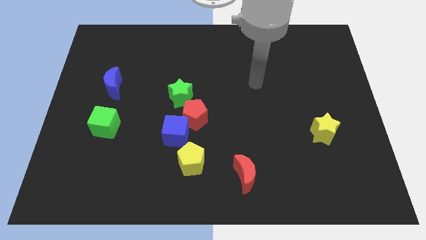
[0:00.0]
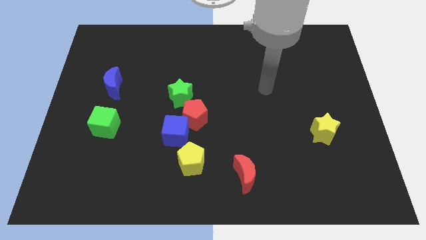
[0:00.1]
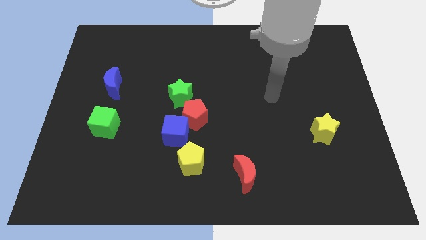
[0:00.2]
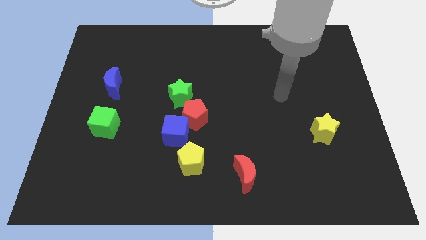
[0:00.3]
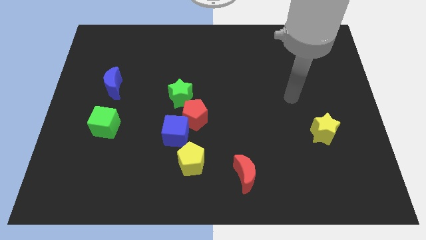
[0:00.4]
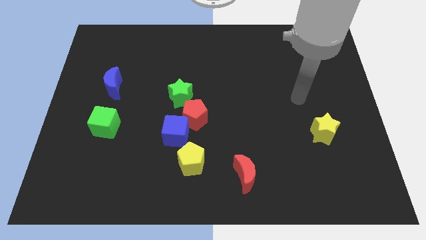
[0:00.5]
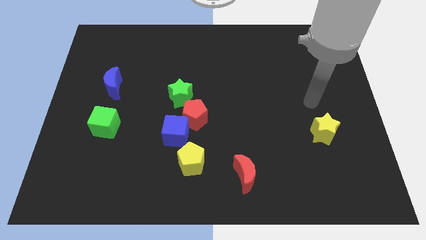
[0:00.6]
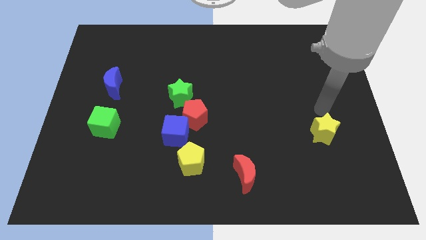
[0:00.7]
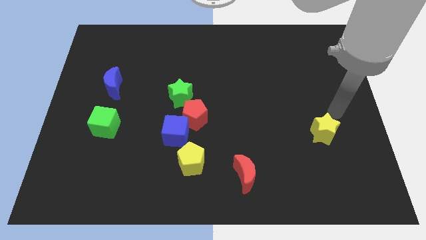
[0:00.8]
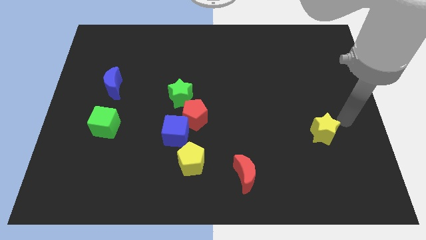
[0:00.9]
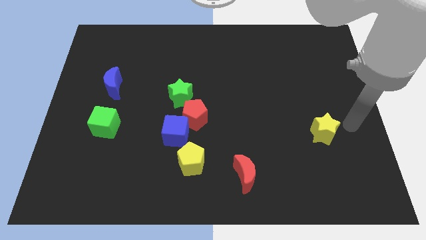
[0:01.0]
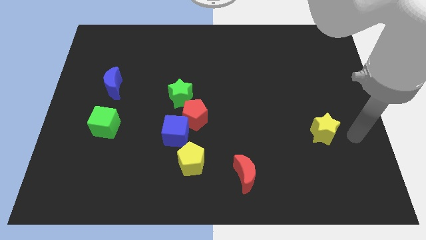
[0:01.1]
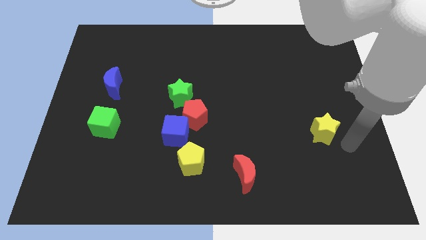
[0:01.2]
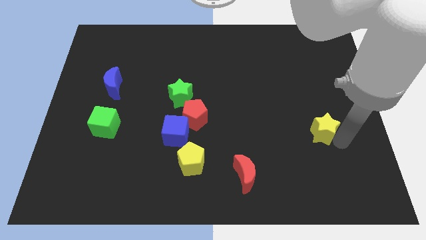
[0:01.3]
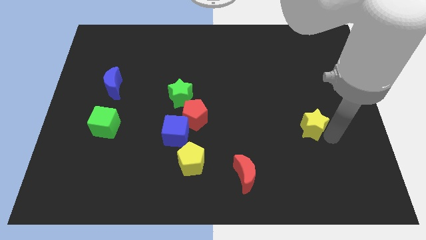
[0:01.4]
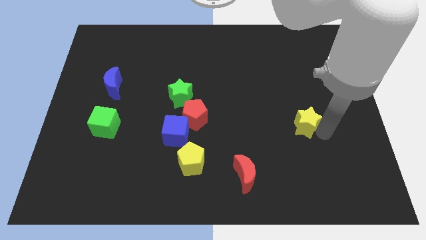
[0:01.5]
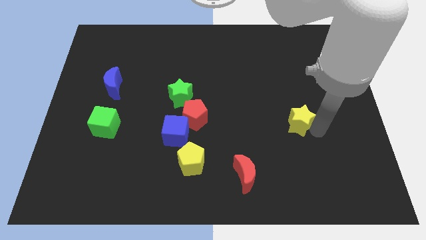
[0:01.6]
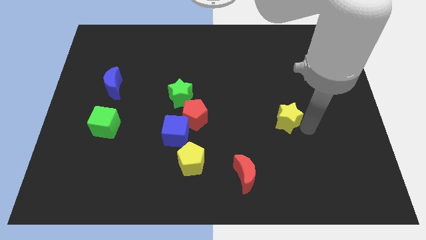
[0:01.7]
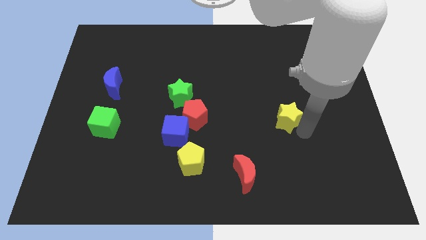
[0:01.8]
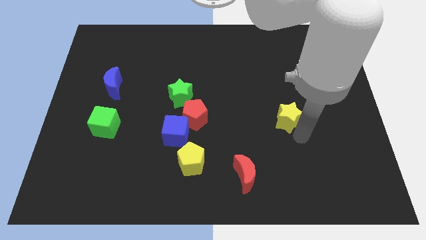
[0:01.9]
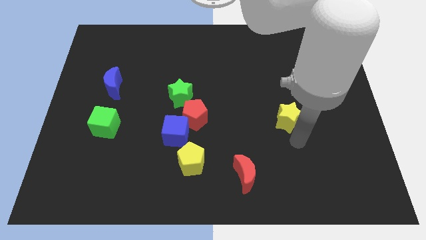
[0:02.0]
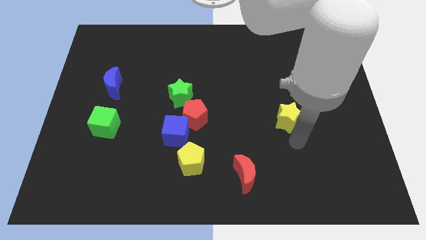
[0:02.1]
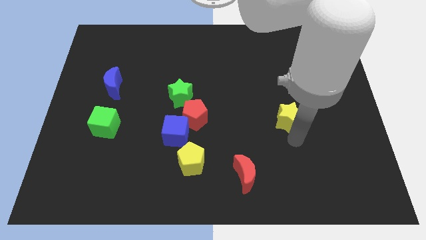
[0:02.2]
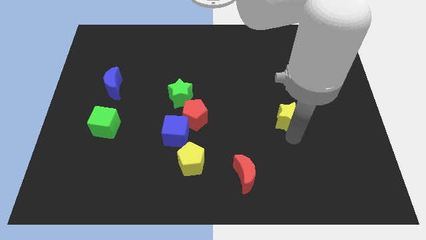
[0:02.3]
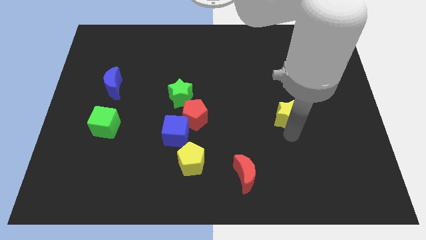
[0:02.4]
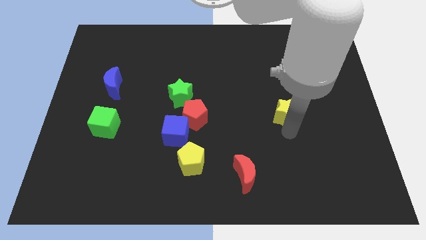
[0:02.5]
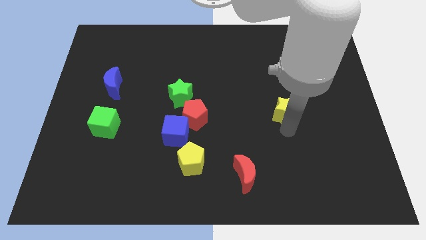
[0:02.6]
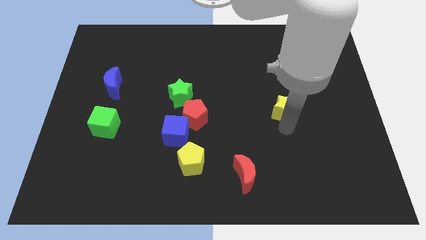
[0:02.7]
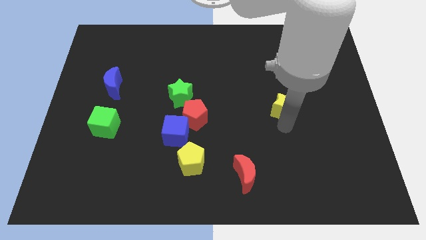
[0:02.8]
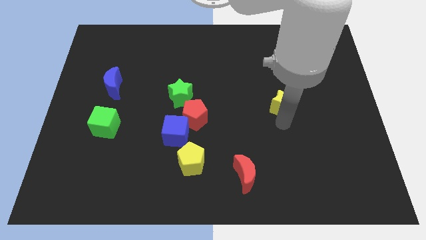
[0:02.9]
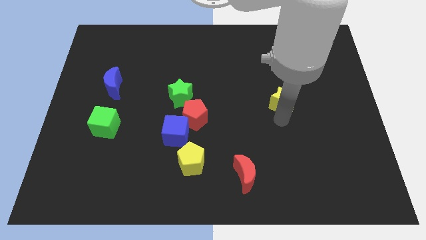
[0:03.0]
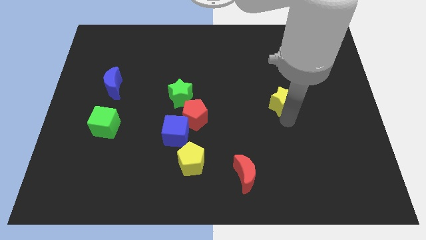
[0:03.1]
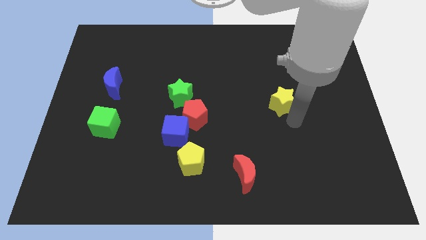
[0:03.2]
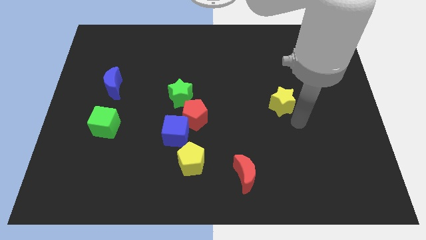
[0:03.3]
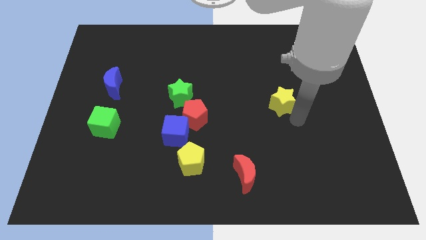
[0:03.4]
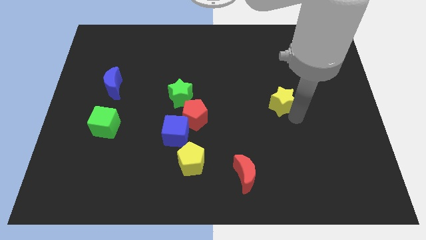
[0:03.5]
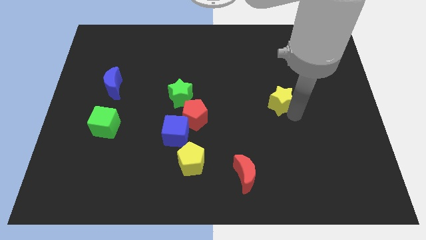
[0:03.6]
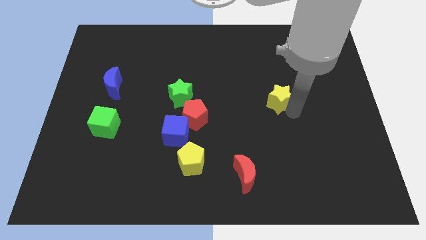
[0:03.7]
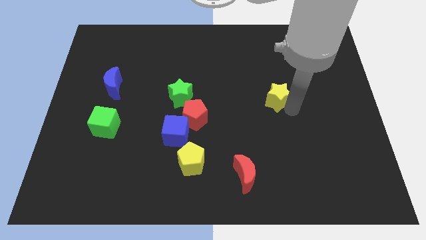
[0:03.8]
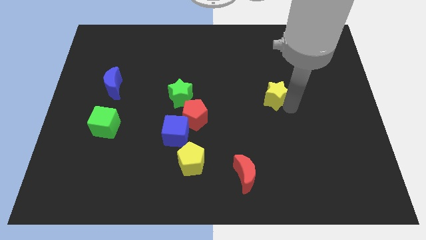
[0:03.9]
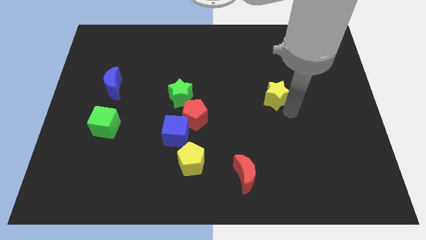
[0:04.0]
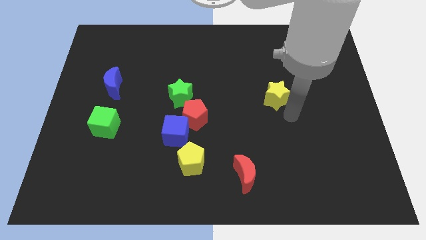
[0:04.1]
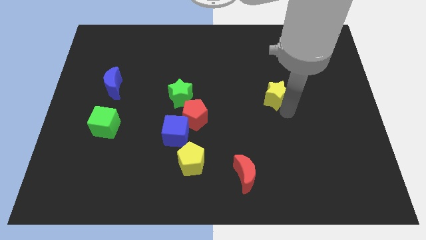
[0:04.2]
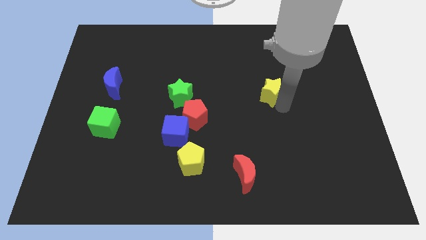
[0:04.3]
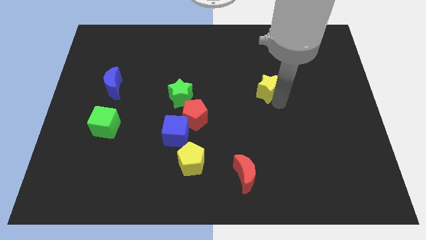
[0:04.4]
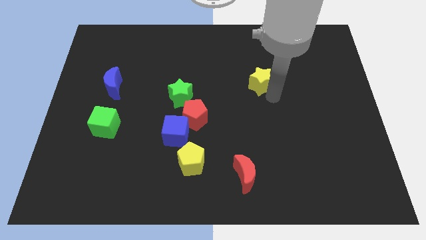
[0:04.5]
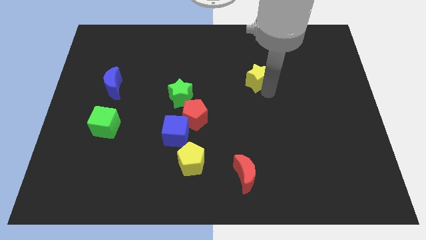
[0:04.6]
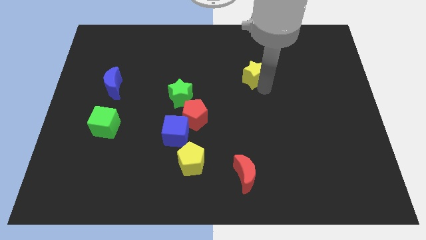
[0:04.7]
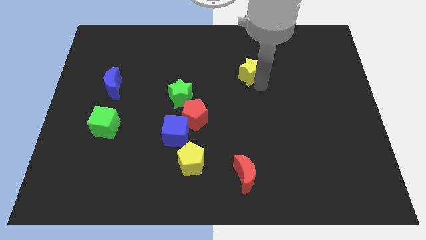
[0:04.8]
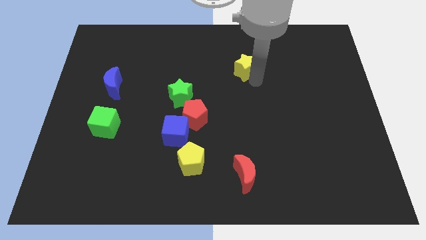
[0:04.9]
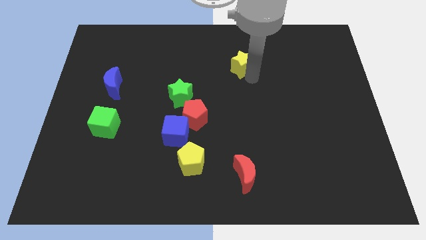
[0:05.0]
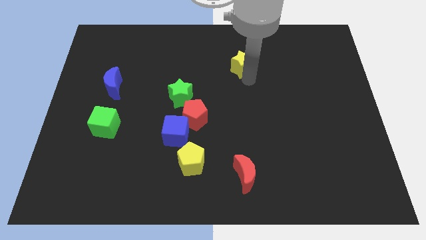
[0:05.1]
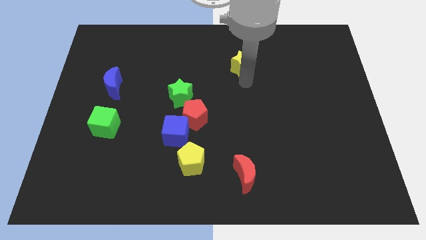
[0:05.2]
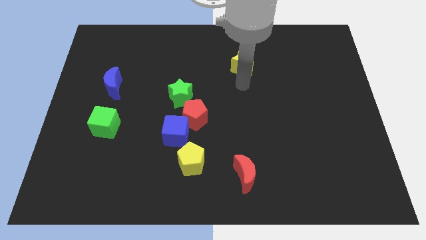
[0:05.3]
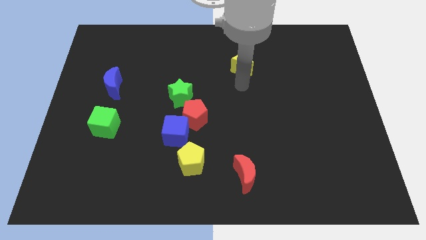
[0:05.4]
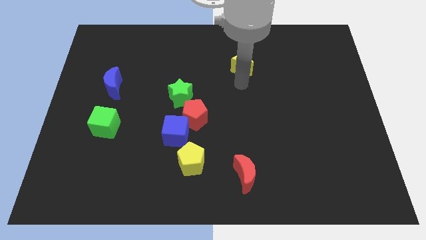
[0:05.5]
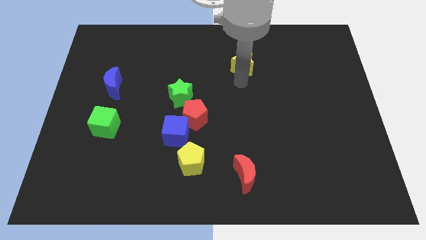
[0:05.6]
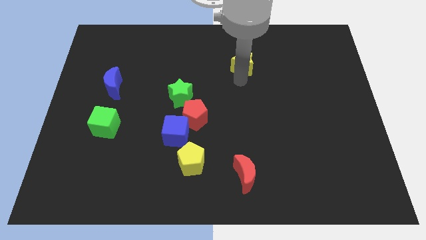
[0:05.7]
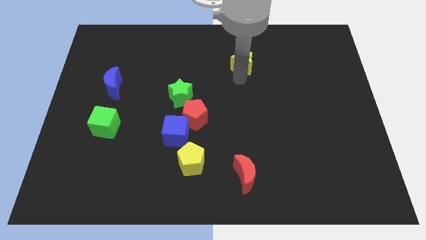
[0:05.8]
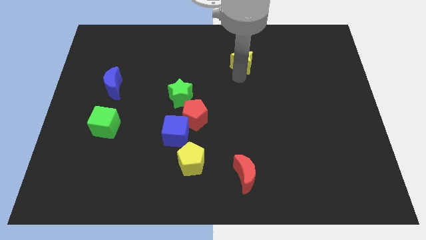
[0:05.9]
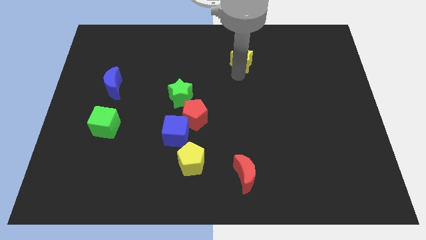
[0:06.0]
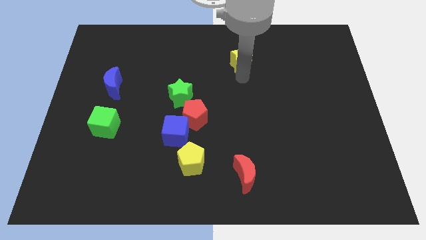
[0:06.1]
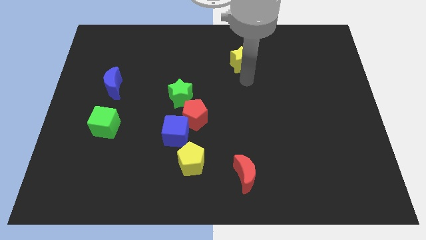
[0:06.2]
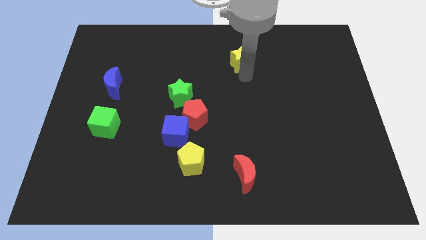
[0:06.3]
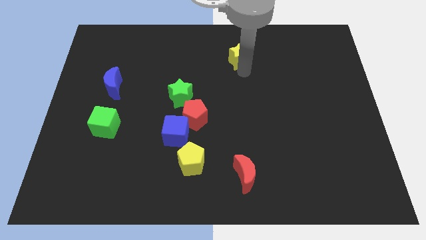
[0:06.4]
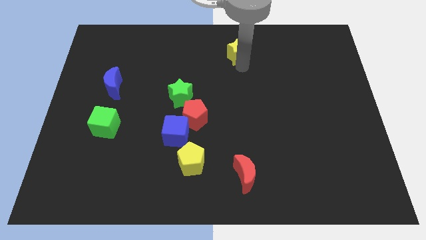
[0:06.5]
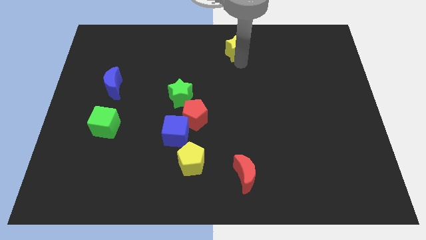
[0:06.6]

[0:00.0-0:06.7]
put the yellow star to the towards your base
